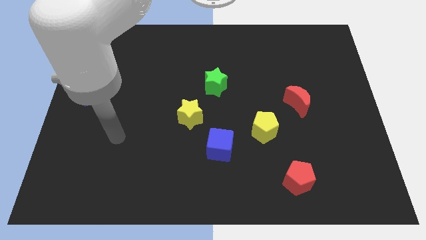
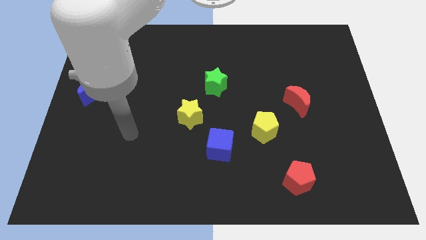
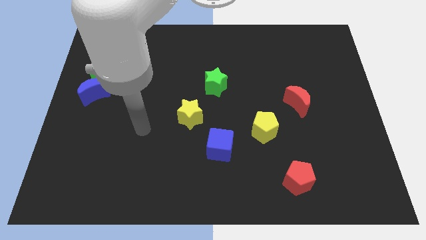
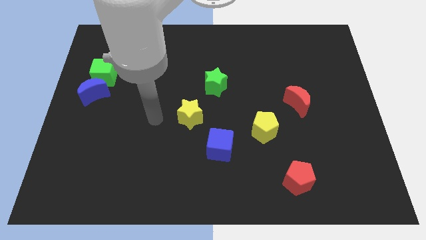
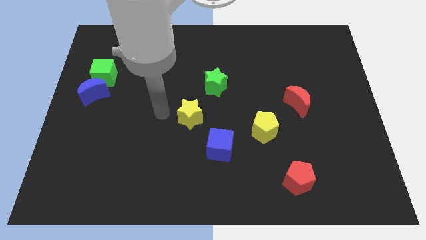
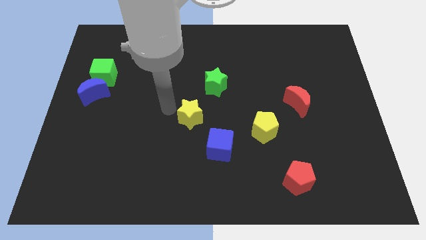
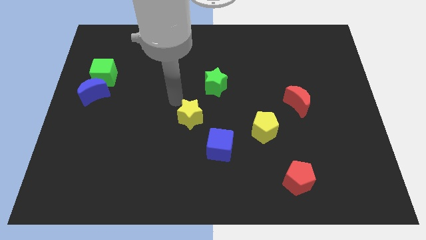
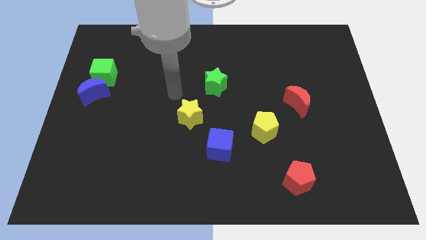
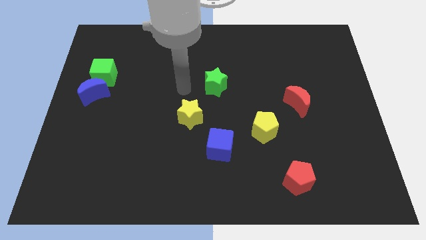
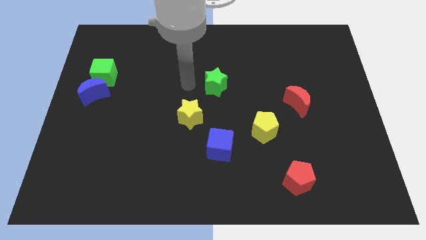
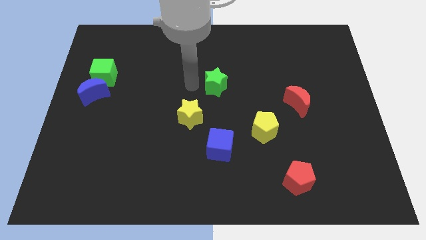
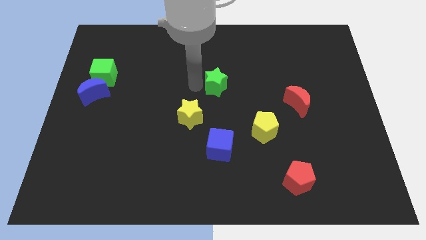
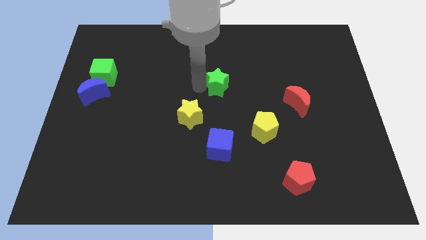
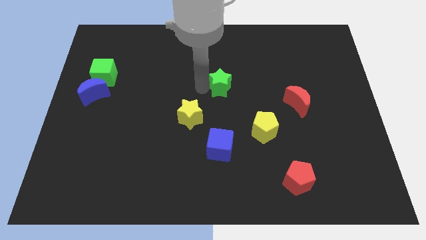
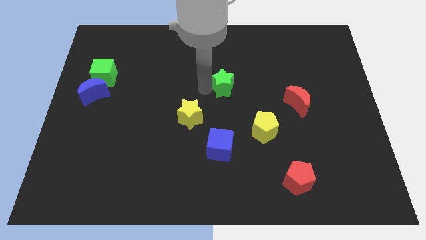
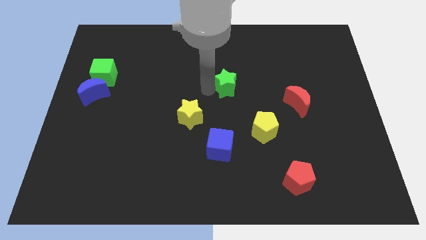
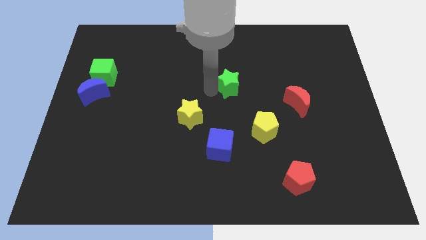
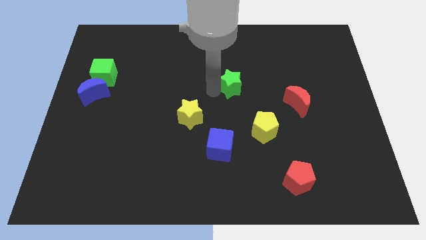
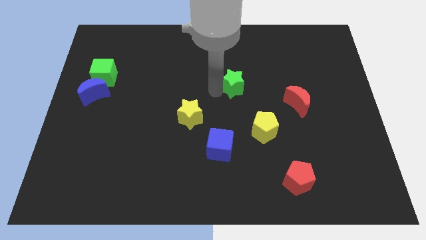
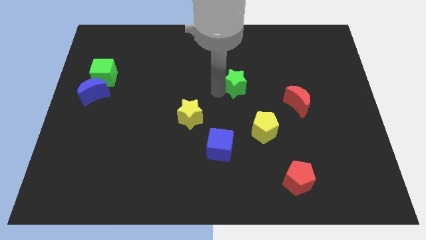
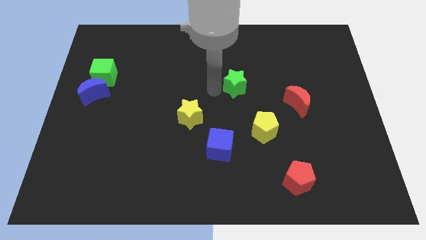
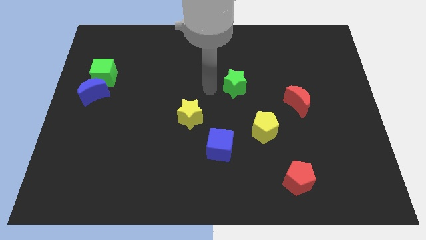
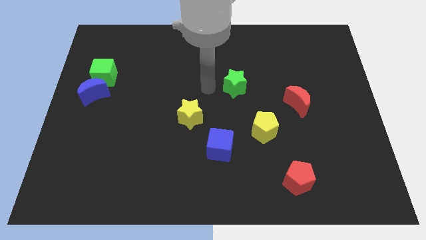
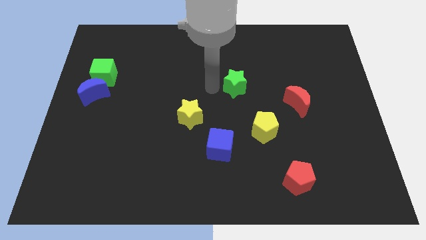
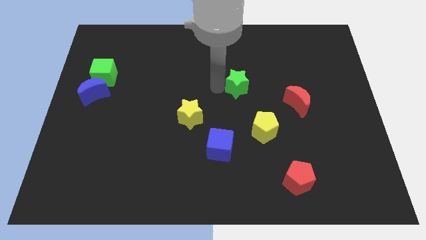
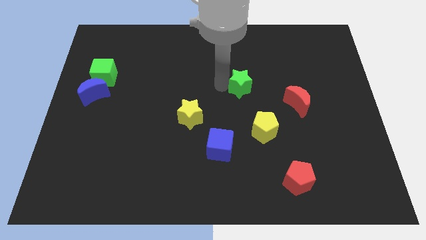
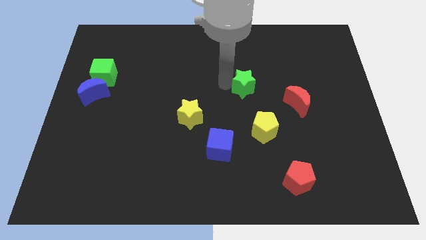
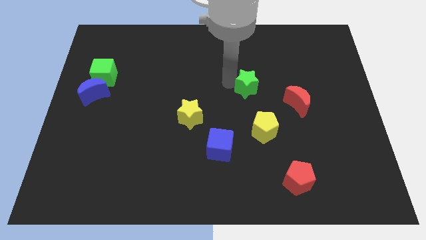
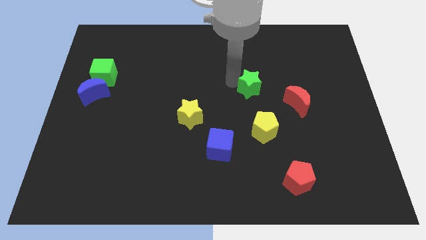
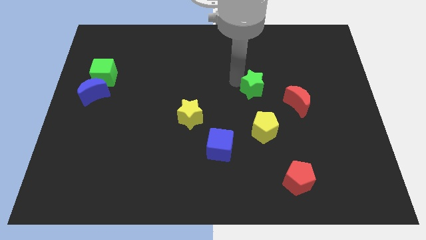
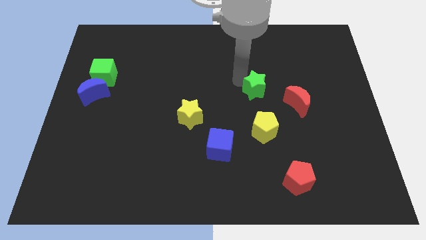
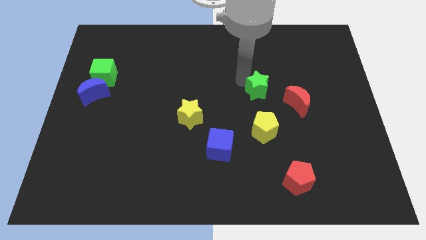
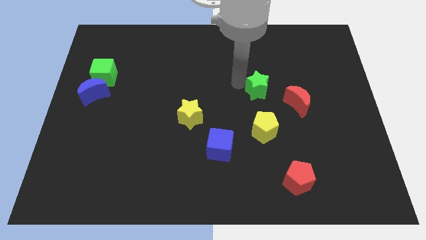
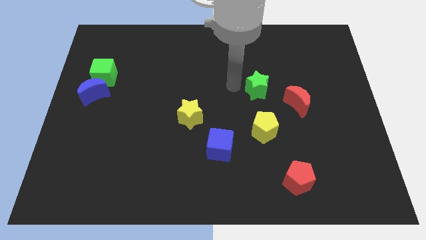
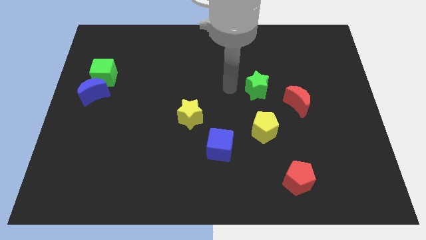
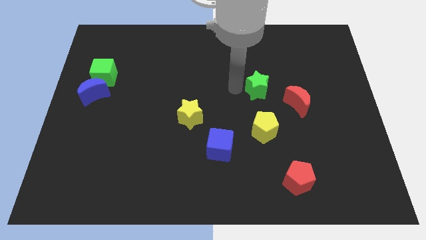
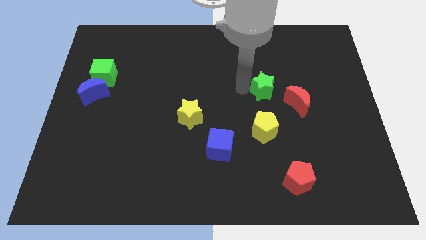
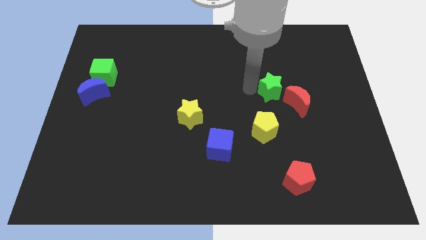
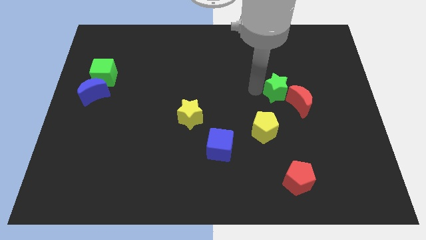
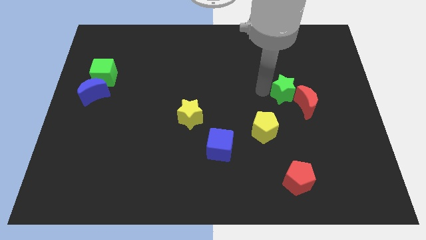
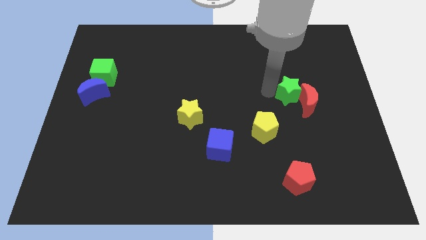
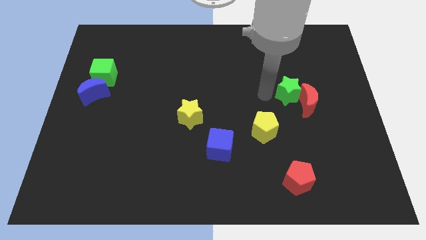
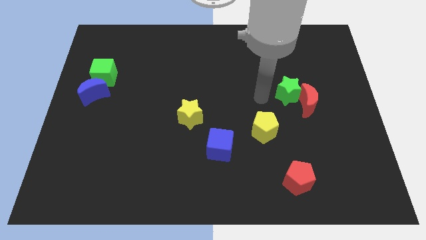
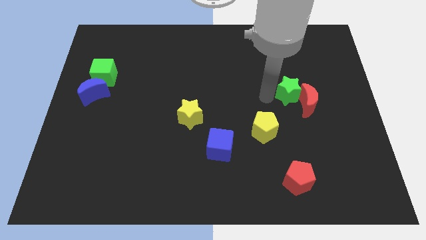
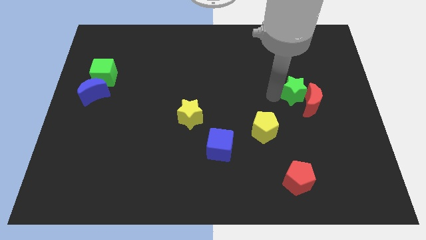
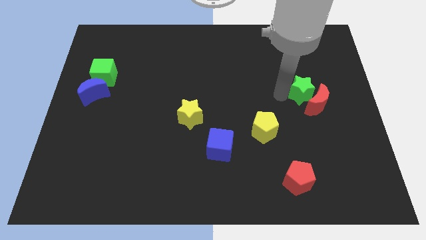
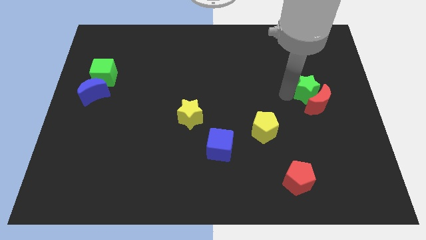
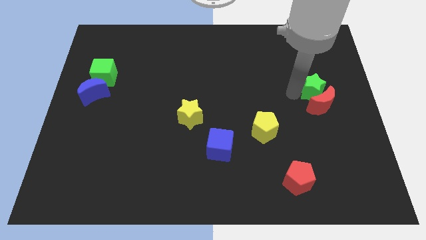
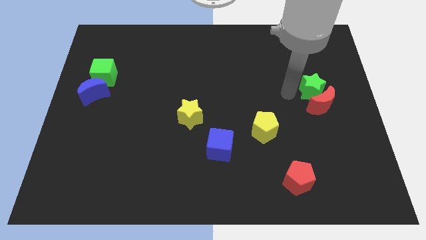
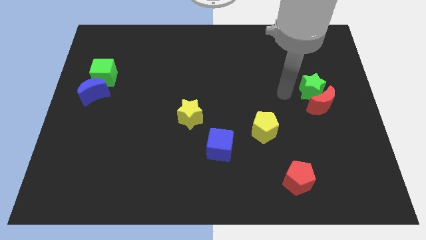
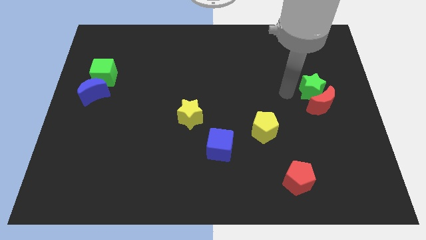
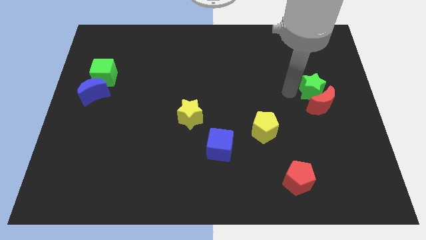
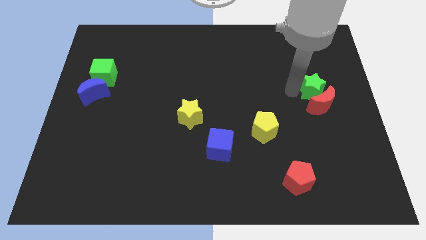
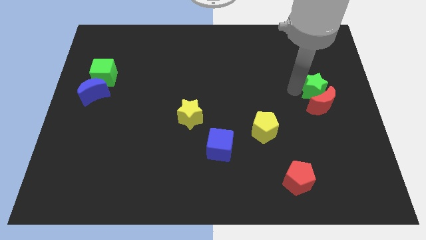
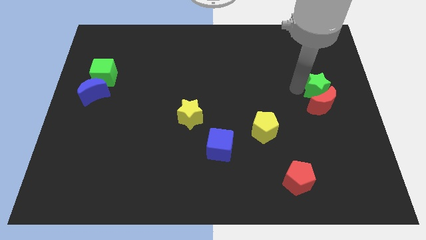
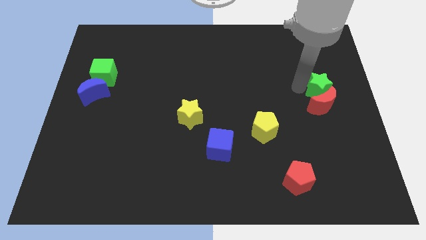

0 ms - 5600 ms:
put the green star to the right side

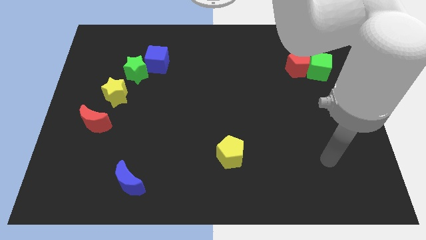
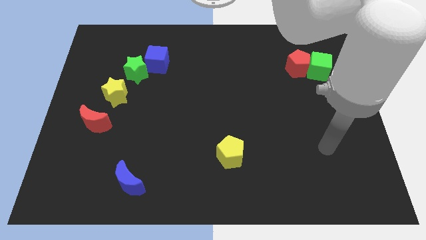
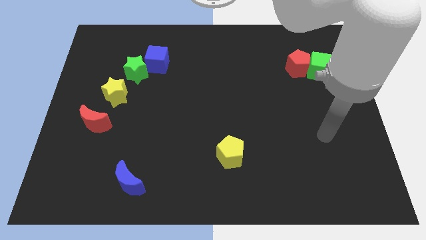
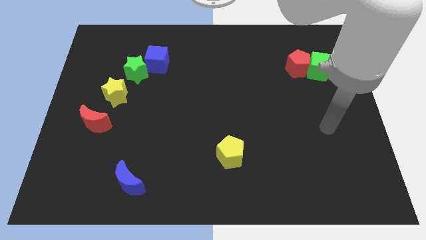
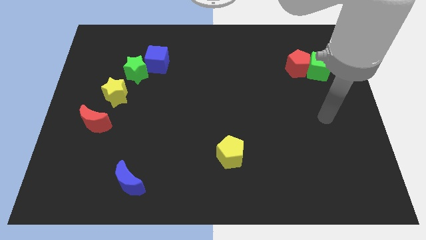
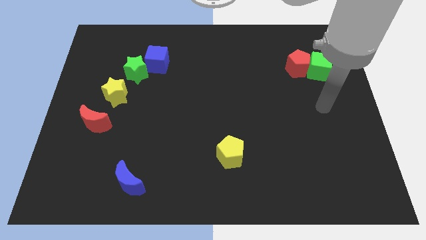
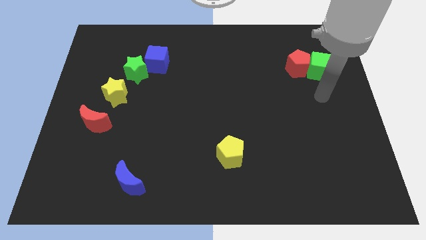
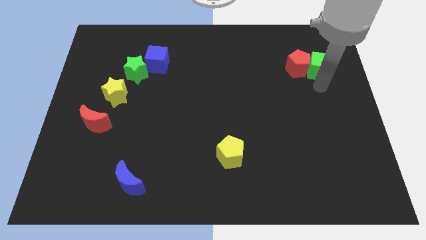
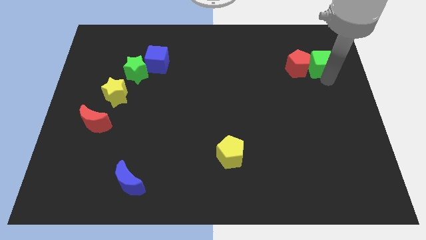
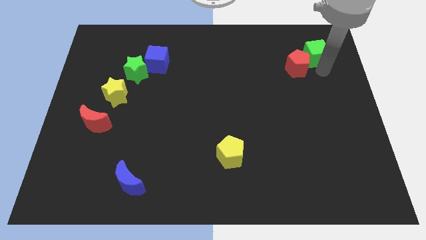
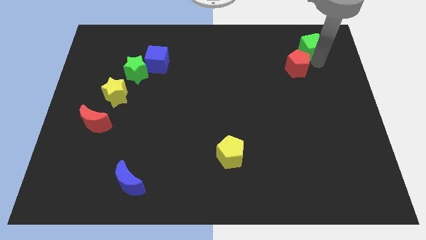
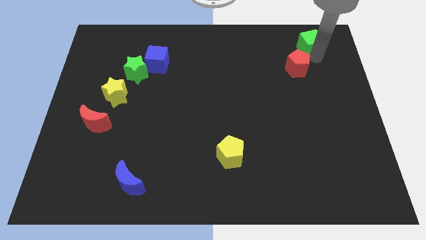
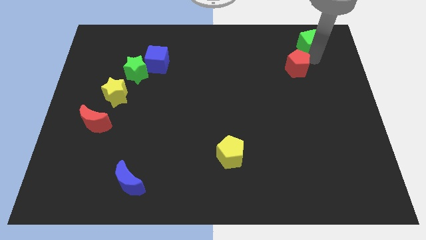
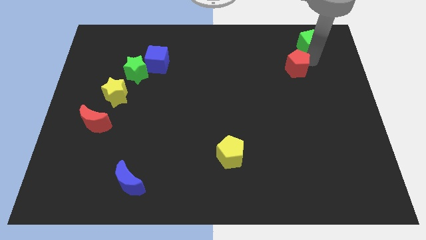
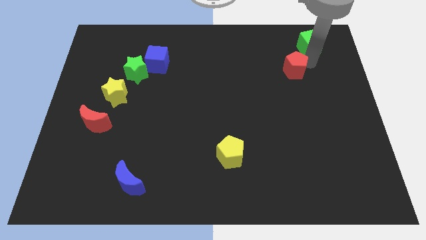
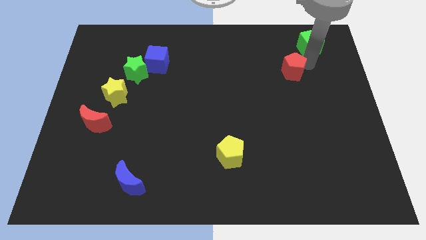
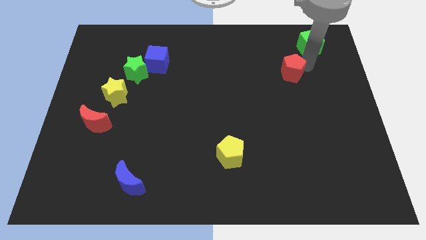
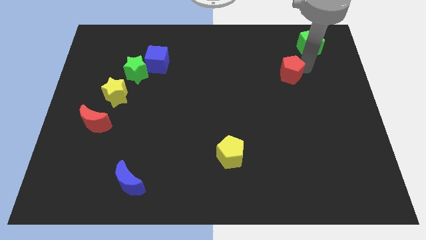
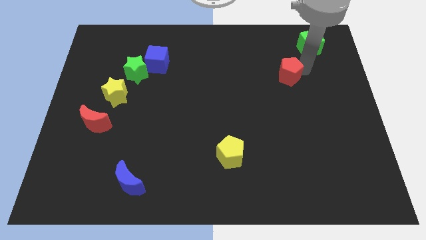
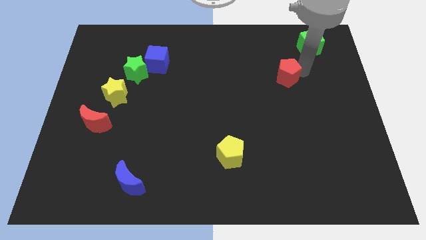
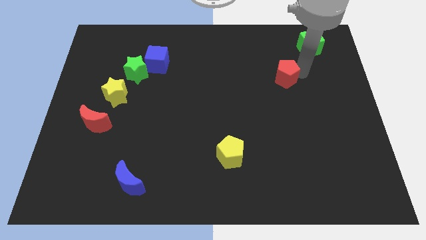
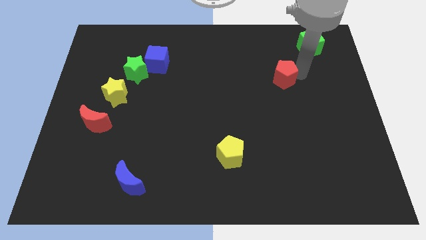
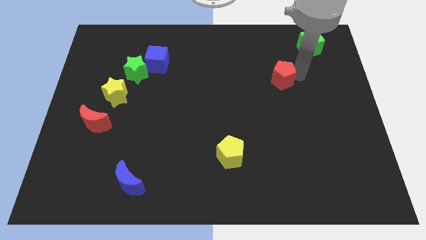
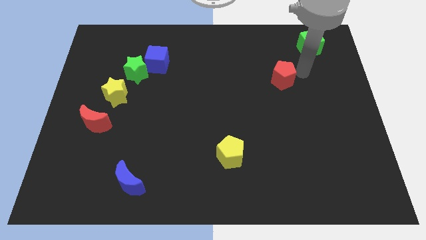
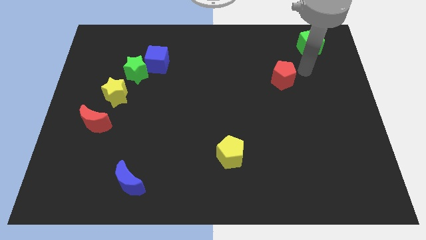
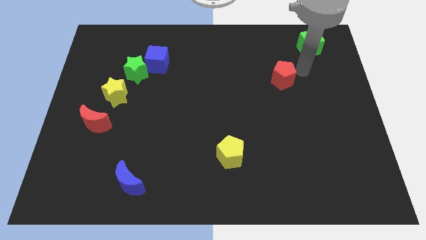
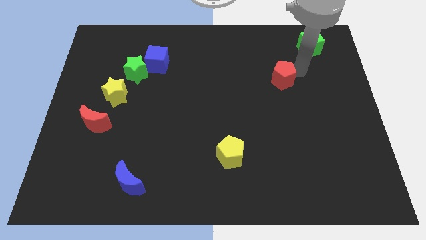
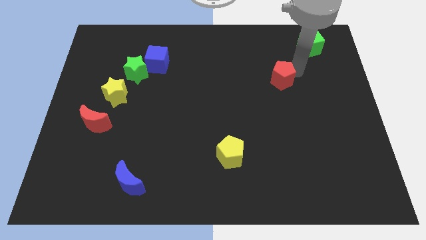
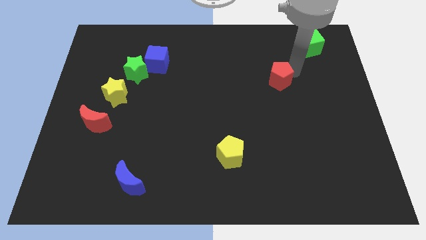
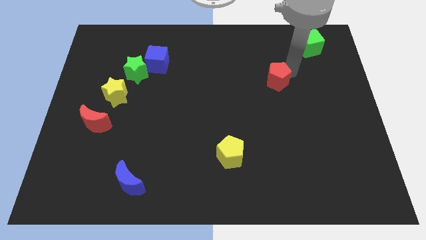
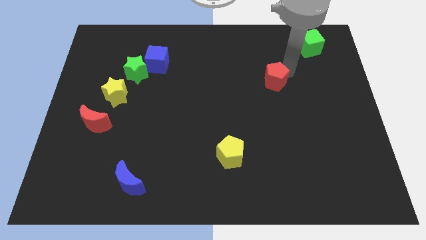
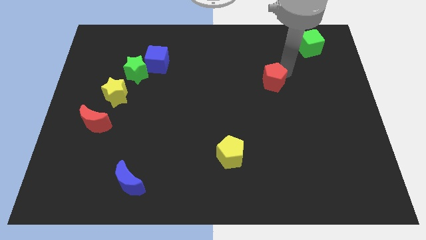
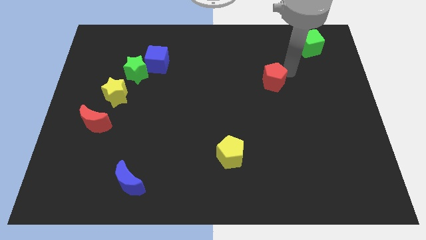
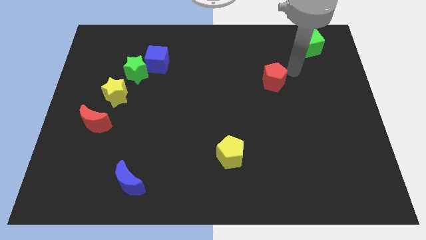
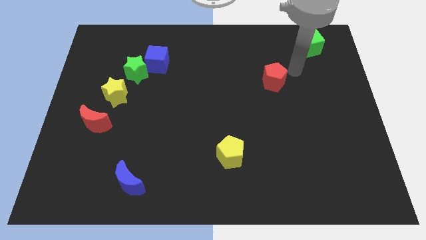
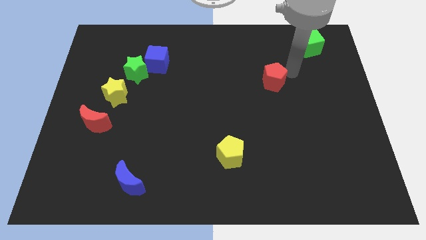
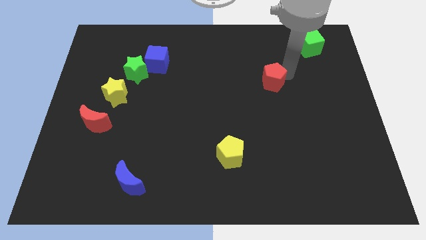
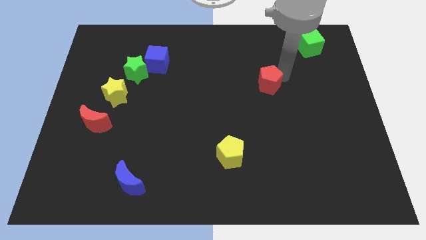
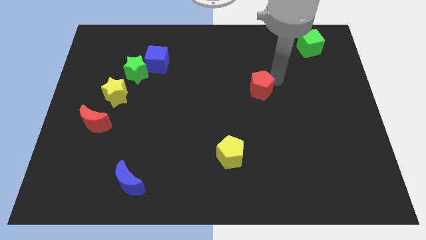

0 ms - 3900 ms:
put the red pentagon to the center of the board
